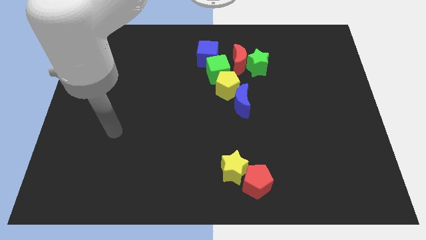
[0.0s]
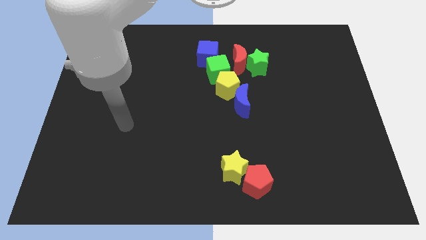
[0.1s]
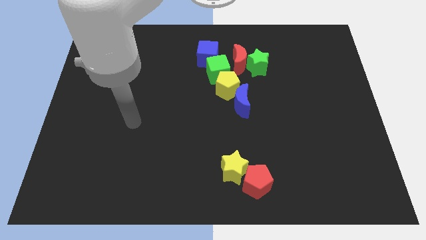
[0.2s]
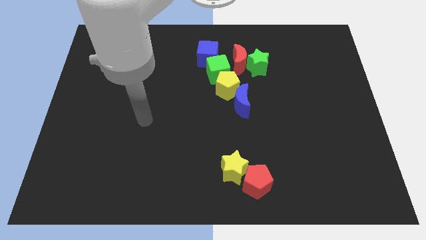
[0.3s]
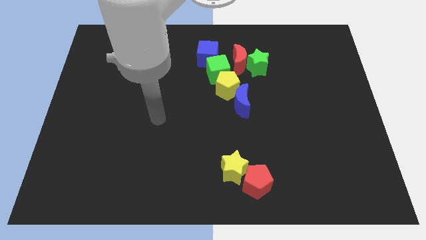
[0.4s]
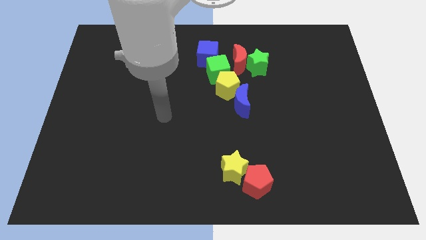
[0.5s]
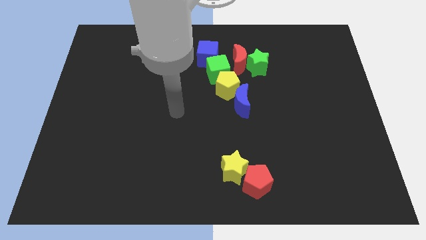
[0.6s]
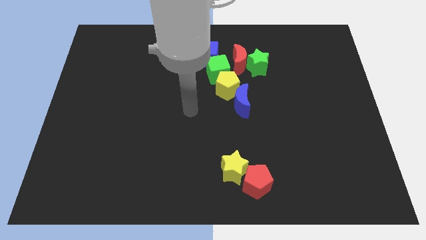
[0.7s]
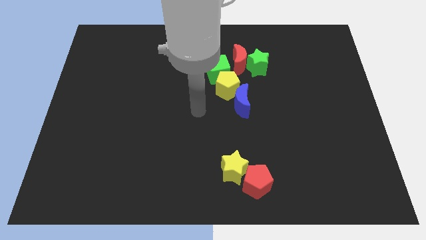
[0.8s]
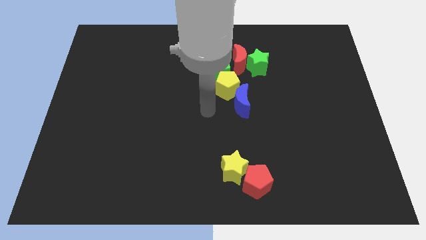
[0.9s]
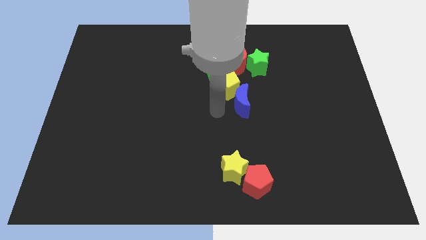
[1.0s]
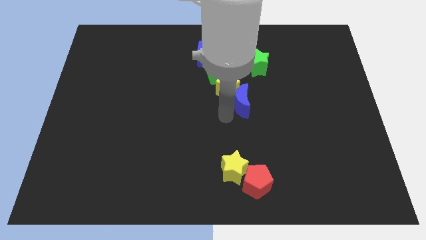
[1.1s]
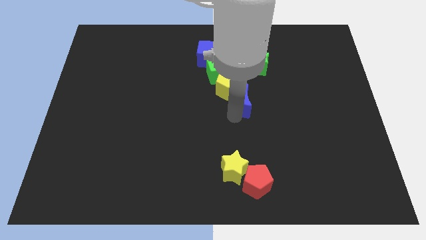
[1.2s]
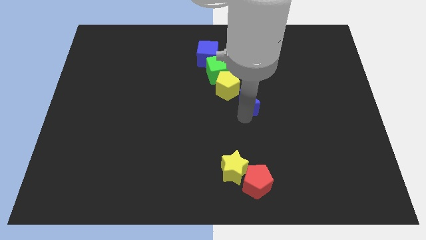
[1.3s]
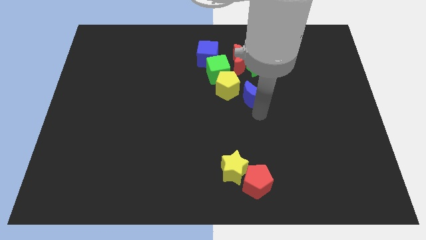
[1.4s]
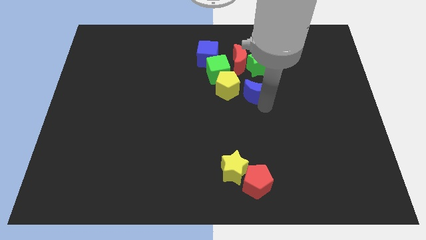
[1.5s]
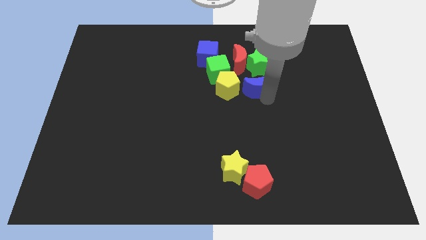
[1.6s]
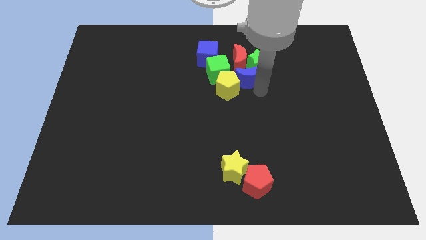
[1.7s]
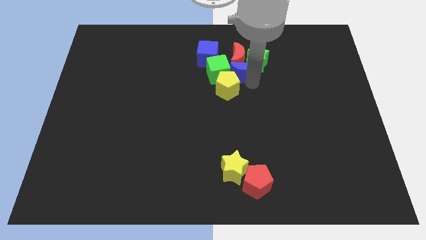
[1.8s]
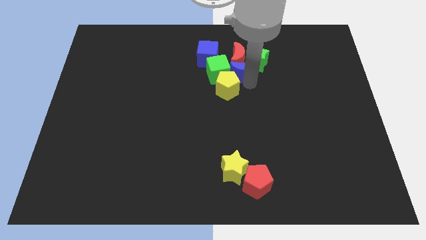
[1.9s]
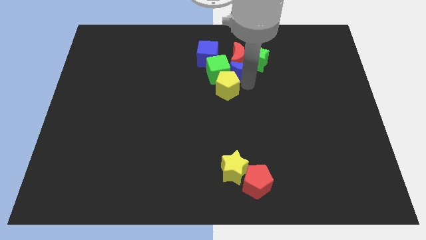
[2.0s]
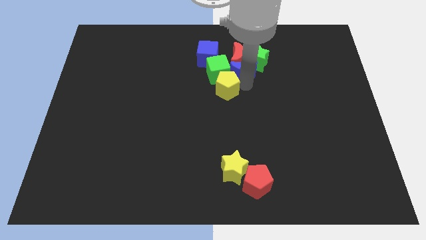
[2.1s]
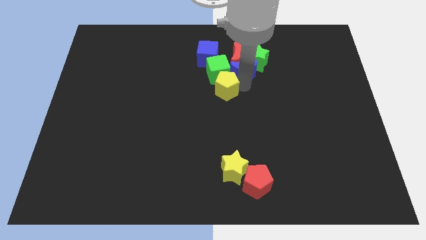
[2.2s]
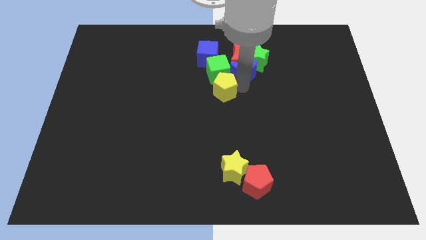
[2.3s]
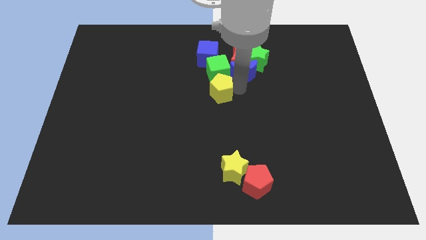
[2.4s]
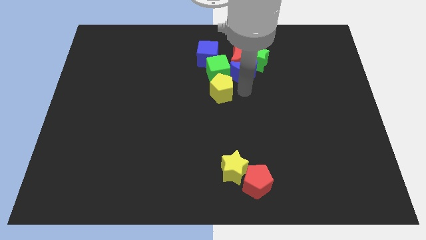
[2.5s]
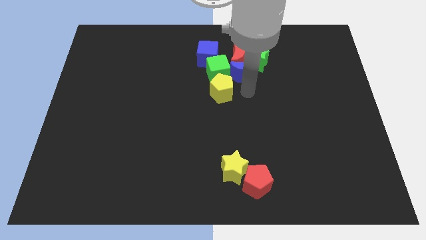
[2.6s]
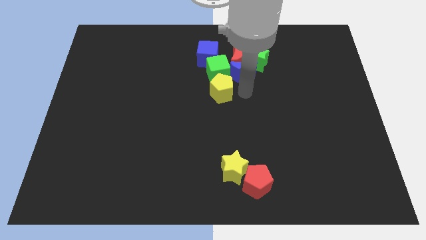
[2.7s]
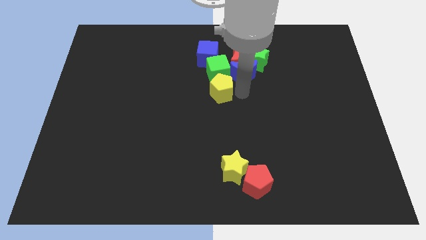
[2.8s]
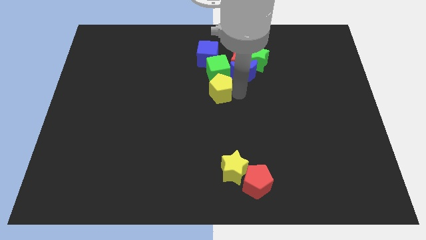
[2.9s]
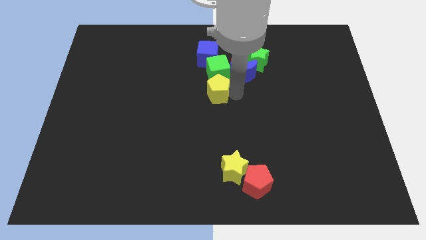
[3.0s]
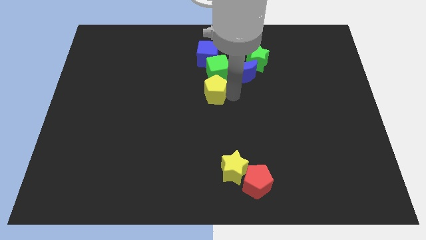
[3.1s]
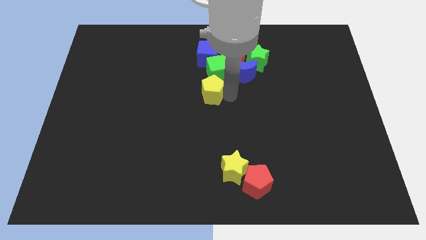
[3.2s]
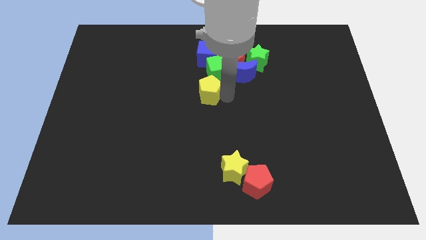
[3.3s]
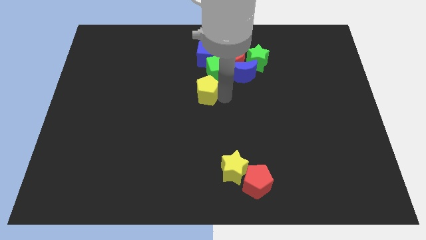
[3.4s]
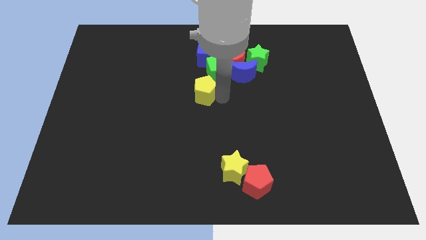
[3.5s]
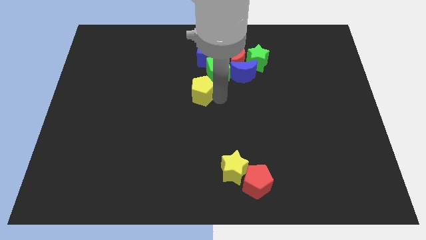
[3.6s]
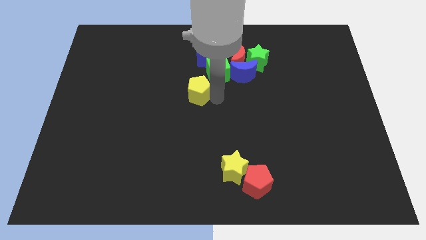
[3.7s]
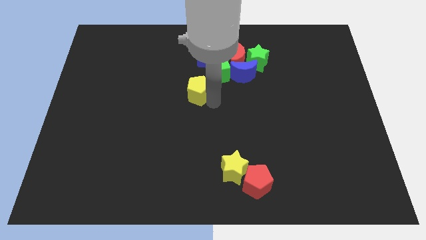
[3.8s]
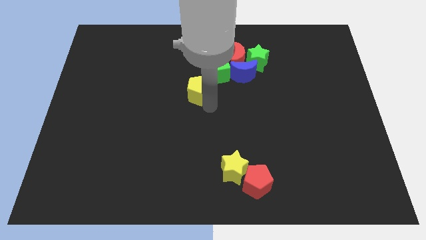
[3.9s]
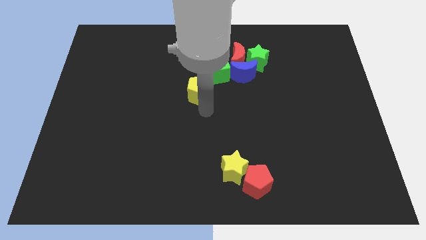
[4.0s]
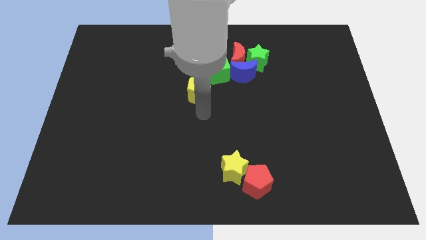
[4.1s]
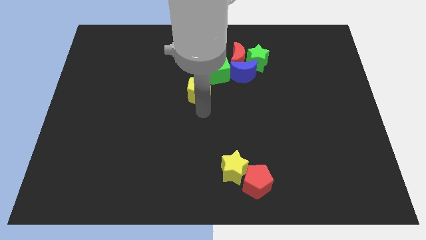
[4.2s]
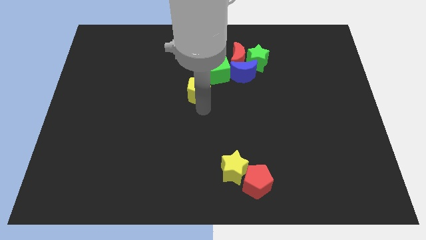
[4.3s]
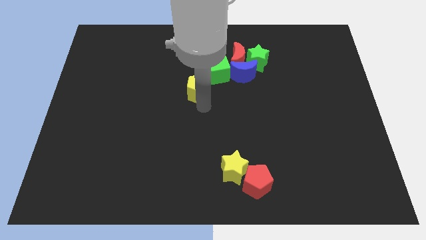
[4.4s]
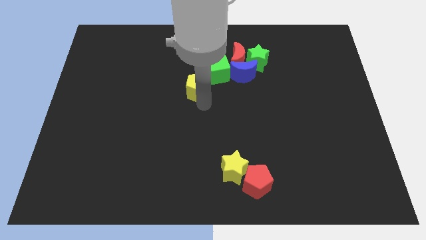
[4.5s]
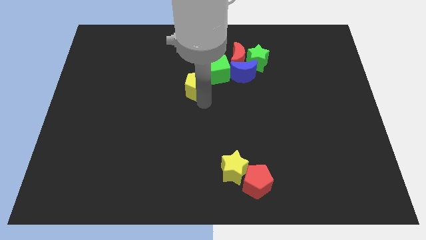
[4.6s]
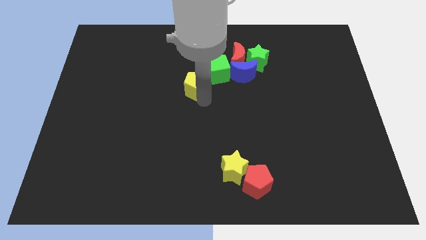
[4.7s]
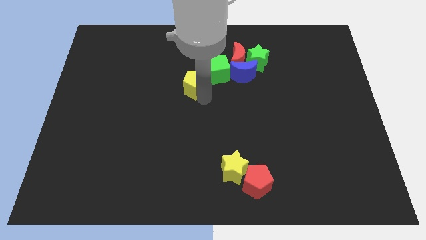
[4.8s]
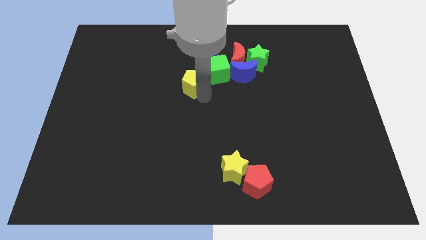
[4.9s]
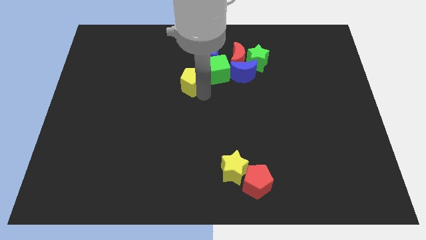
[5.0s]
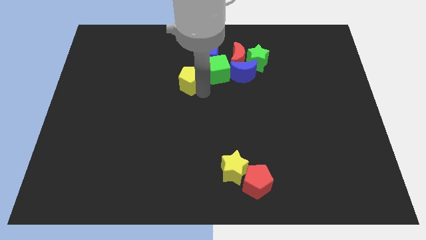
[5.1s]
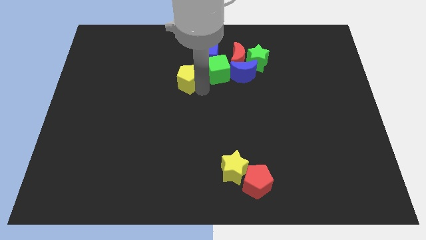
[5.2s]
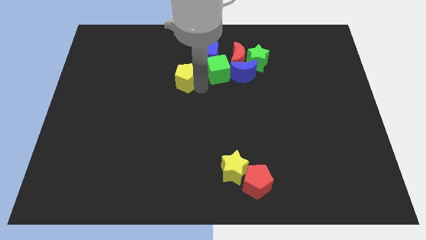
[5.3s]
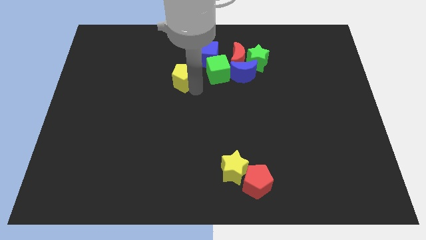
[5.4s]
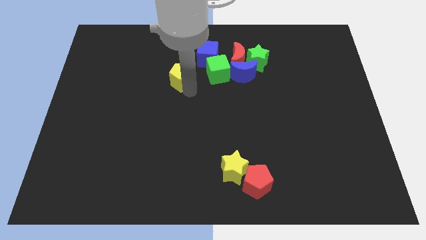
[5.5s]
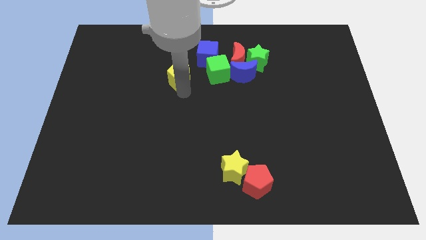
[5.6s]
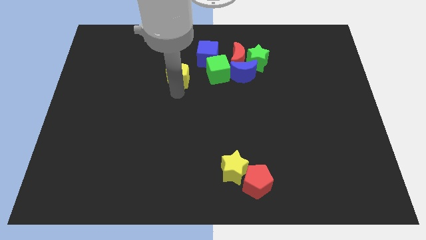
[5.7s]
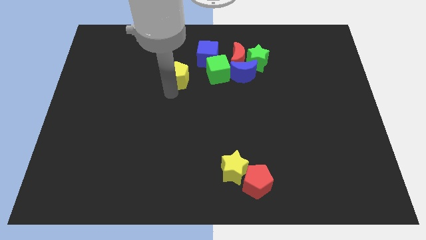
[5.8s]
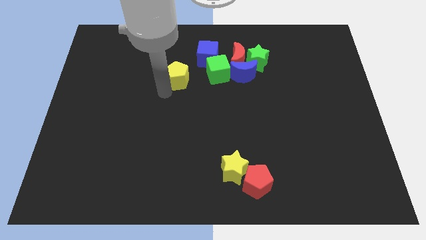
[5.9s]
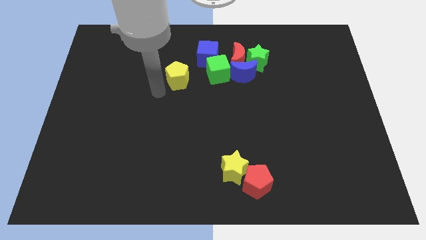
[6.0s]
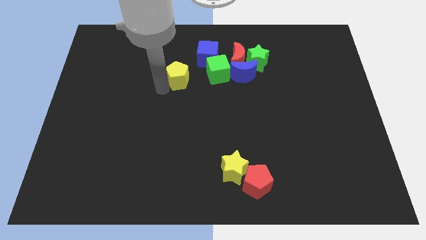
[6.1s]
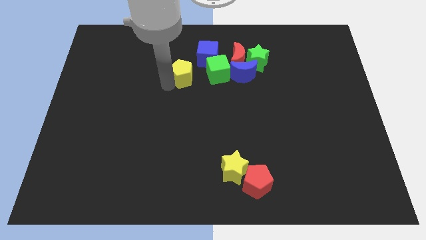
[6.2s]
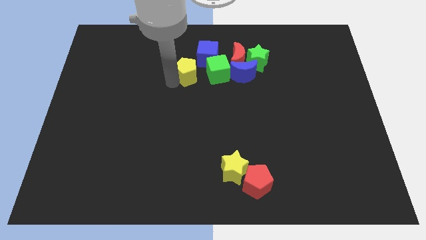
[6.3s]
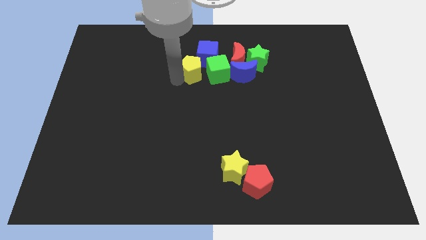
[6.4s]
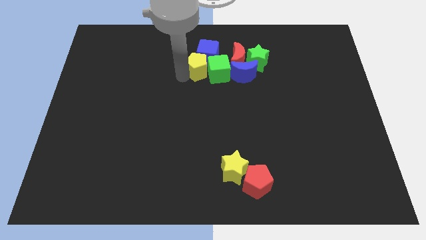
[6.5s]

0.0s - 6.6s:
move the yellow pentagon to the left of the green star
